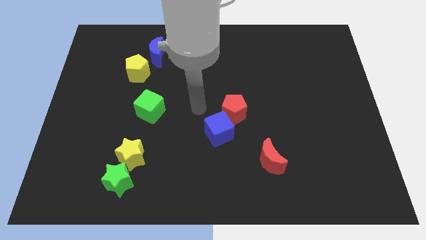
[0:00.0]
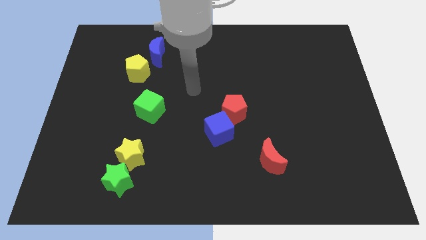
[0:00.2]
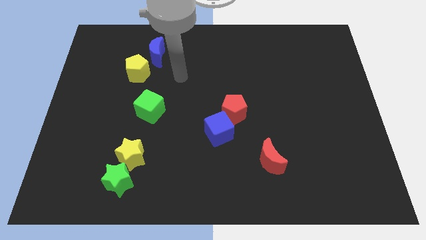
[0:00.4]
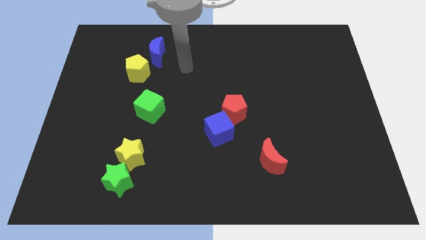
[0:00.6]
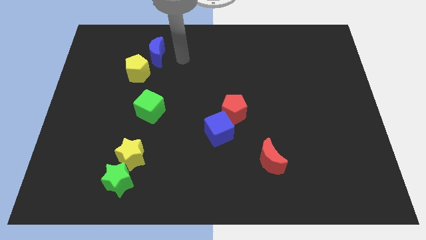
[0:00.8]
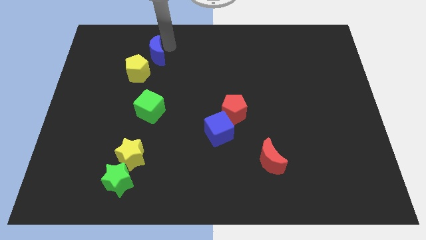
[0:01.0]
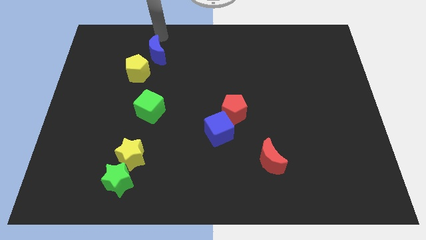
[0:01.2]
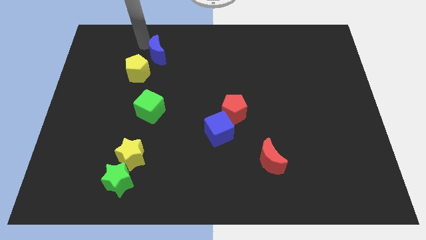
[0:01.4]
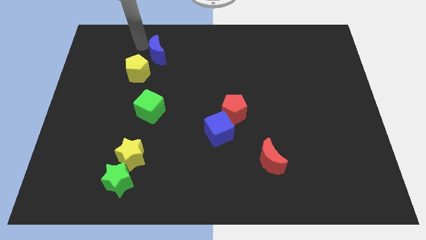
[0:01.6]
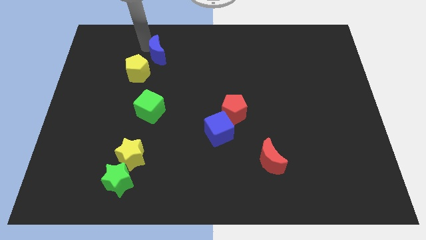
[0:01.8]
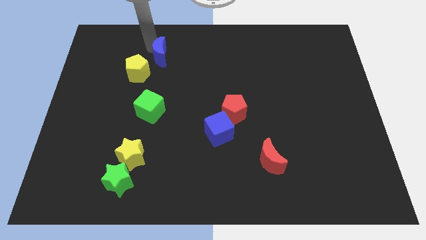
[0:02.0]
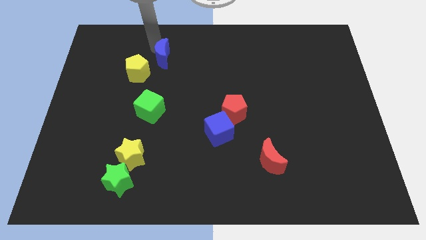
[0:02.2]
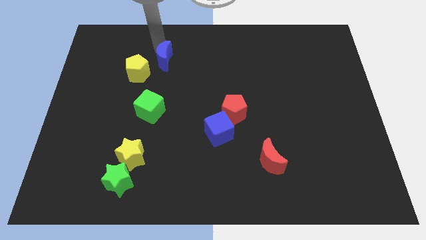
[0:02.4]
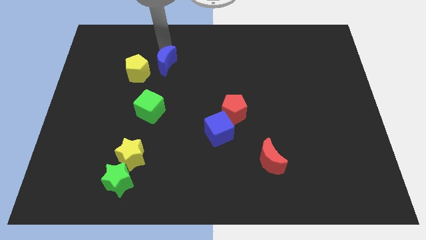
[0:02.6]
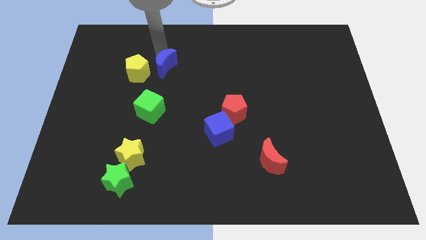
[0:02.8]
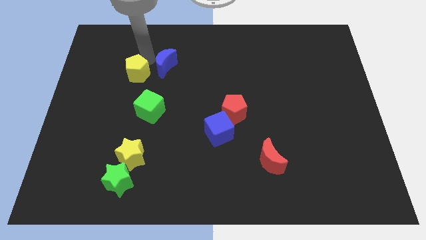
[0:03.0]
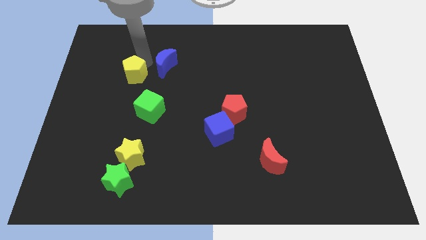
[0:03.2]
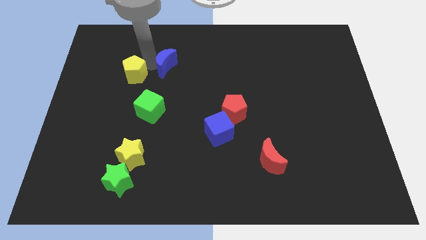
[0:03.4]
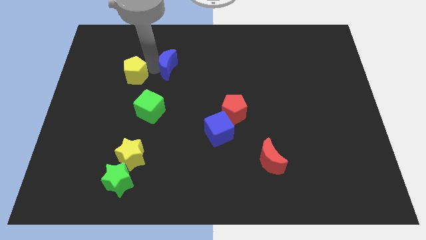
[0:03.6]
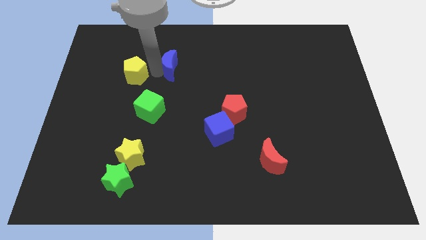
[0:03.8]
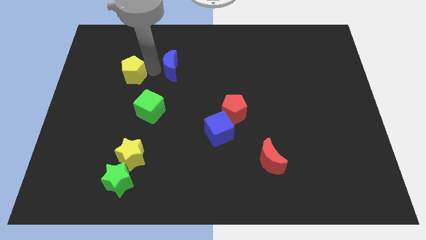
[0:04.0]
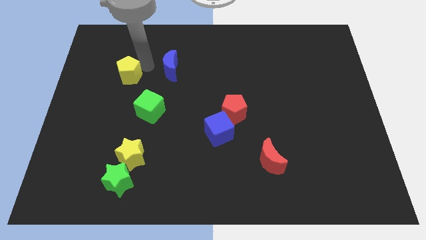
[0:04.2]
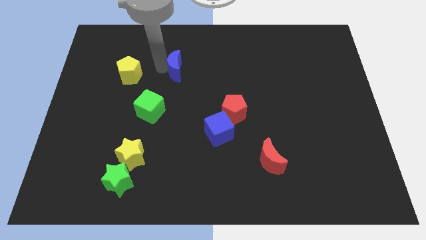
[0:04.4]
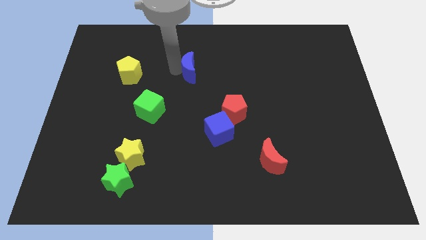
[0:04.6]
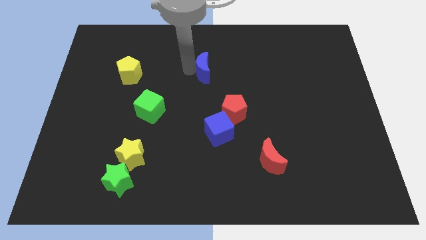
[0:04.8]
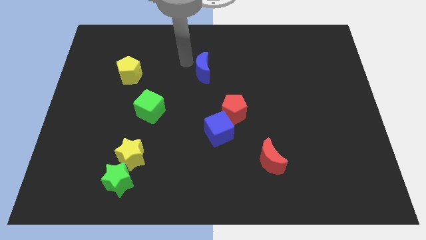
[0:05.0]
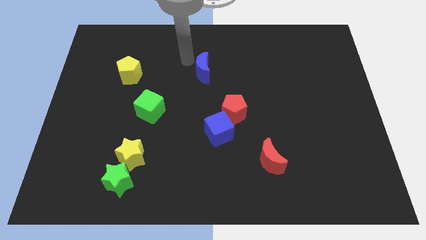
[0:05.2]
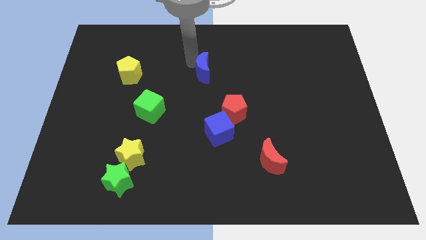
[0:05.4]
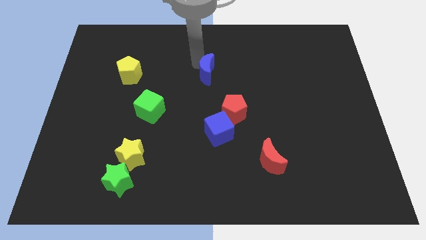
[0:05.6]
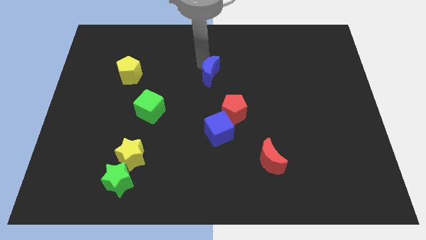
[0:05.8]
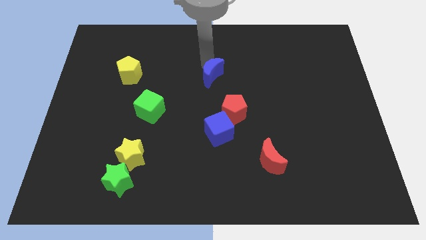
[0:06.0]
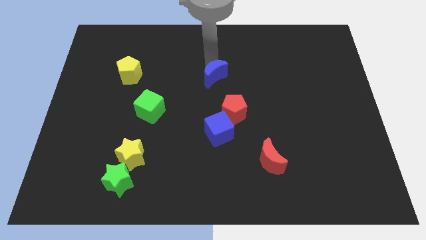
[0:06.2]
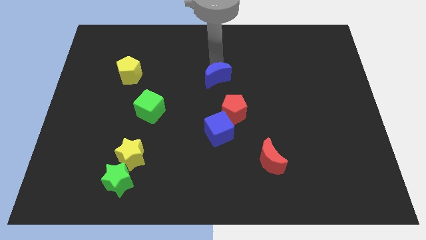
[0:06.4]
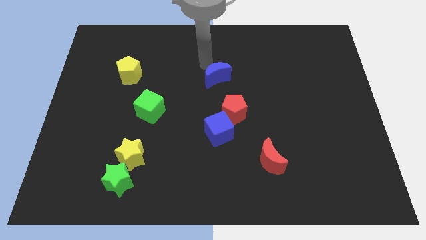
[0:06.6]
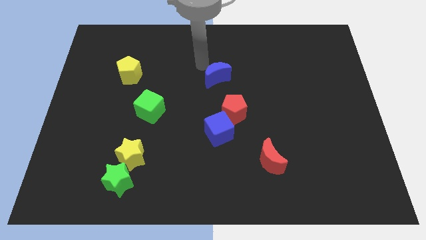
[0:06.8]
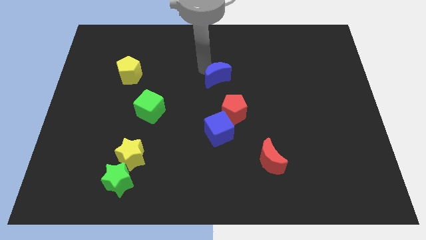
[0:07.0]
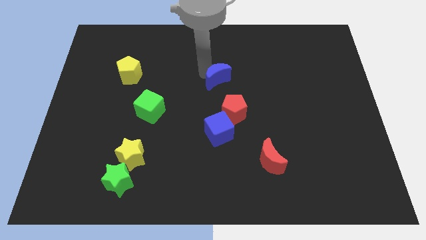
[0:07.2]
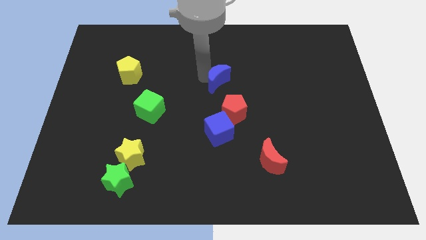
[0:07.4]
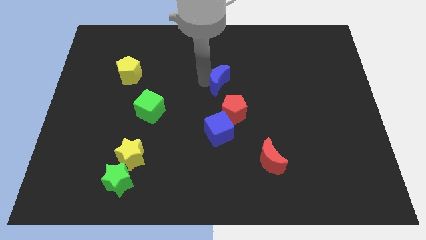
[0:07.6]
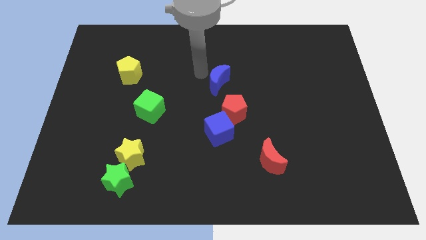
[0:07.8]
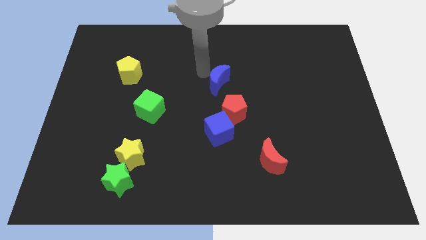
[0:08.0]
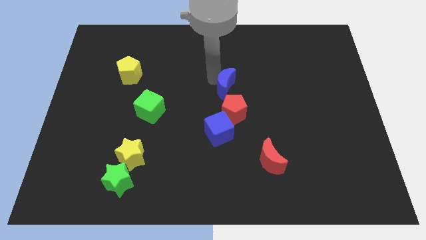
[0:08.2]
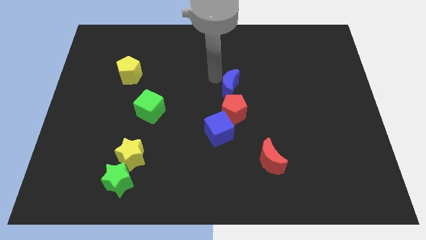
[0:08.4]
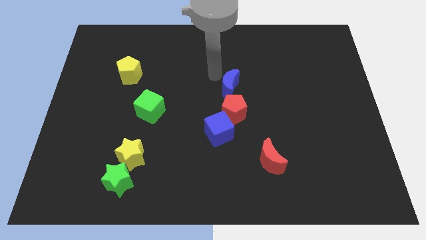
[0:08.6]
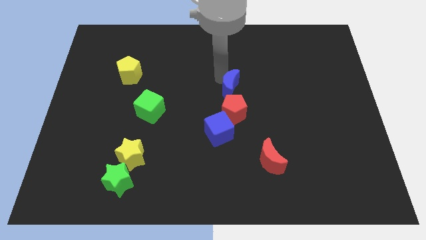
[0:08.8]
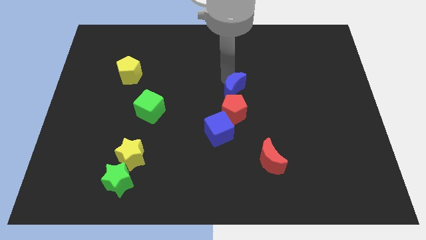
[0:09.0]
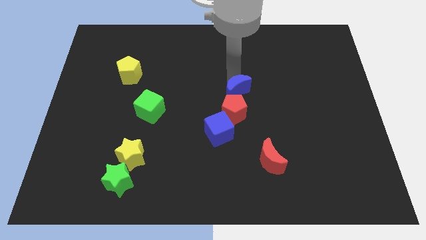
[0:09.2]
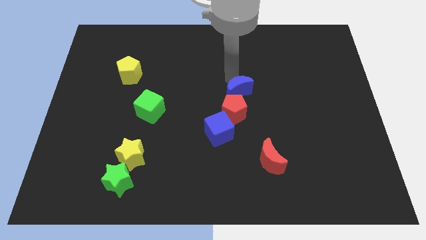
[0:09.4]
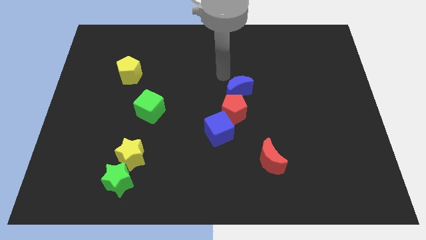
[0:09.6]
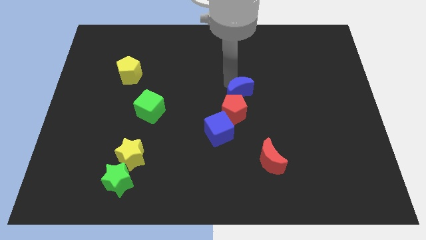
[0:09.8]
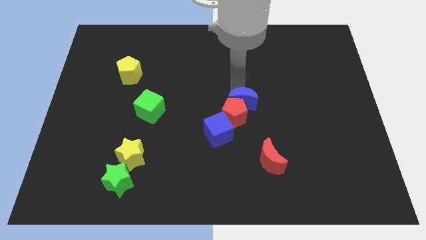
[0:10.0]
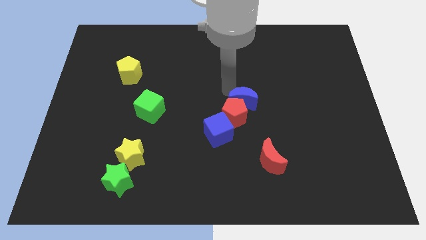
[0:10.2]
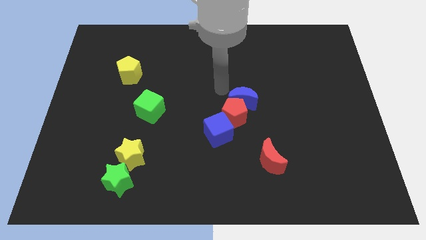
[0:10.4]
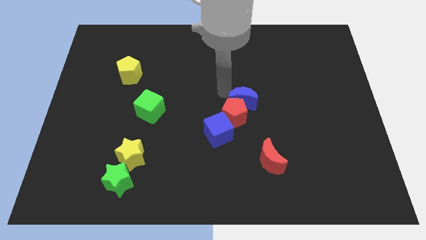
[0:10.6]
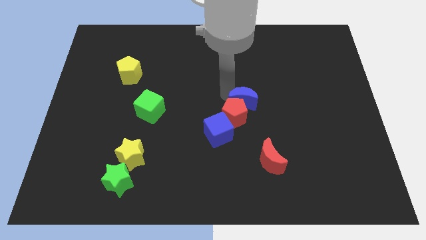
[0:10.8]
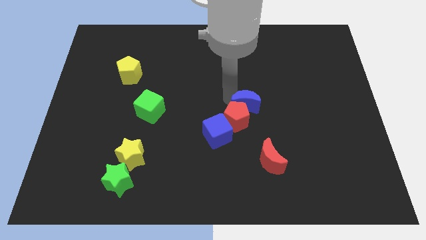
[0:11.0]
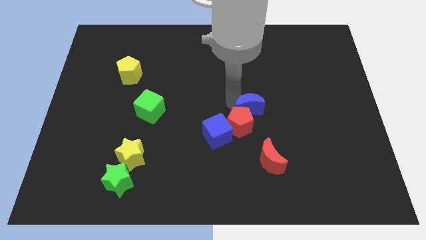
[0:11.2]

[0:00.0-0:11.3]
slide the blue moon to the top of the red moon

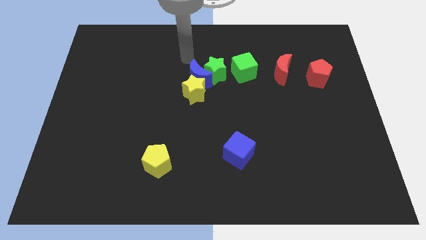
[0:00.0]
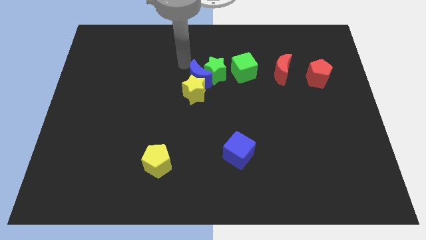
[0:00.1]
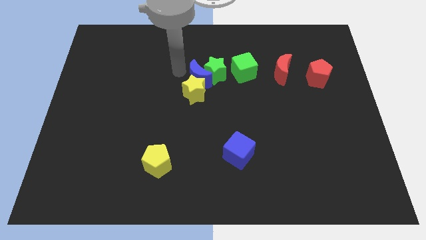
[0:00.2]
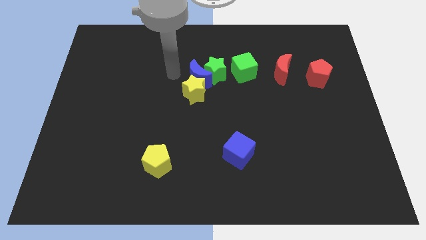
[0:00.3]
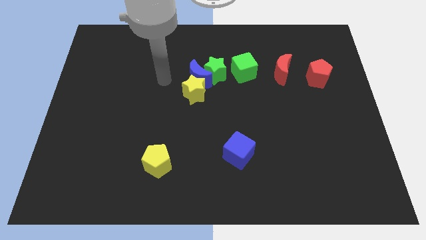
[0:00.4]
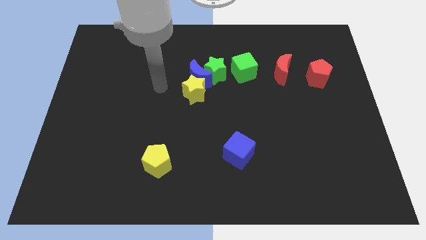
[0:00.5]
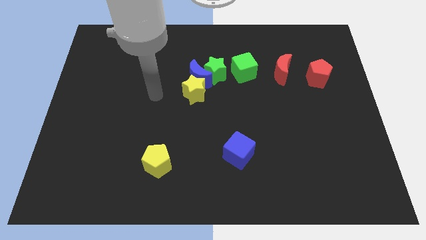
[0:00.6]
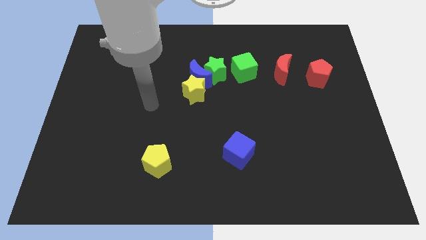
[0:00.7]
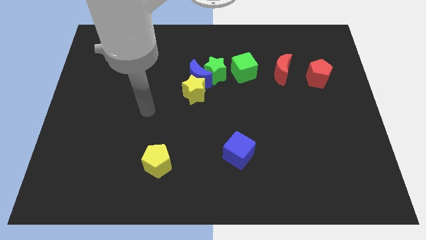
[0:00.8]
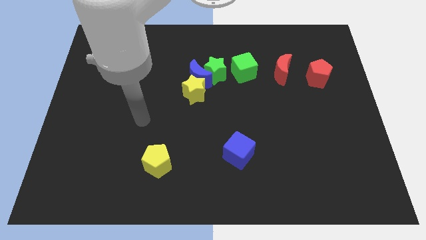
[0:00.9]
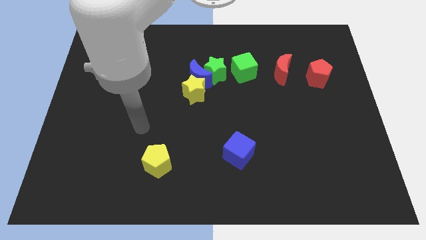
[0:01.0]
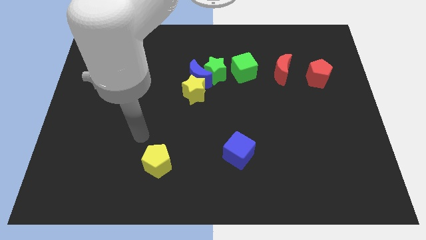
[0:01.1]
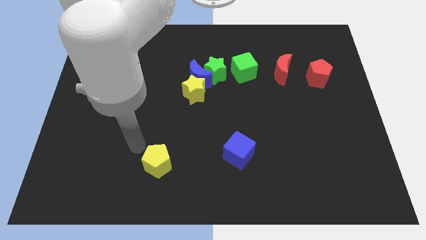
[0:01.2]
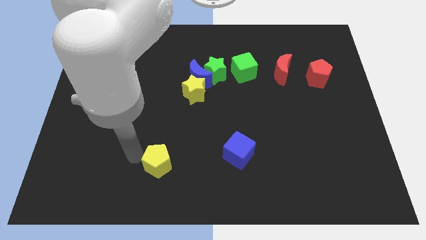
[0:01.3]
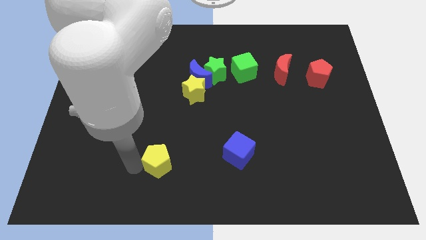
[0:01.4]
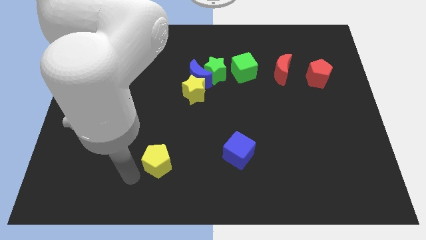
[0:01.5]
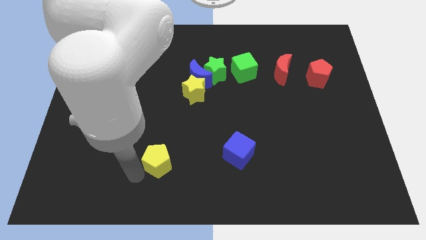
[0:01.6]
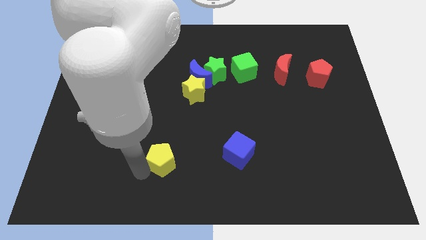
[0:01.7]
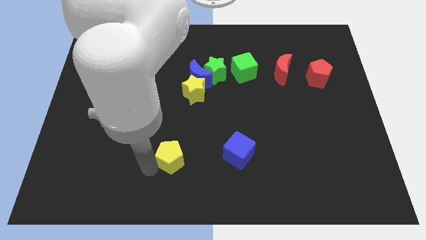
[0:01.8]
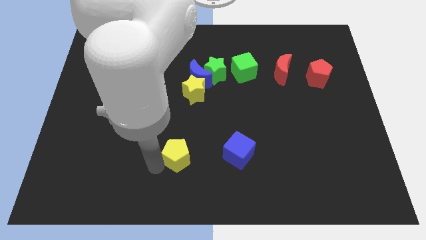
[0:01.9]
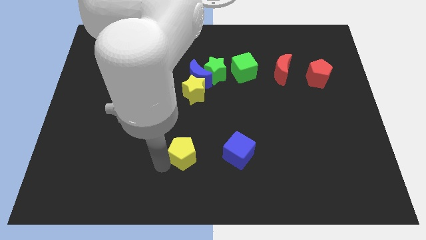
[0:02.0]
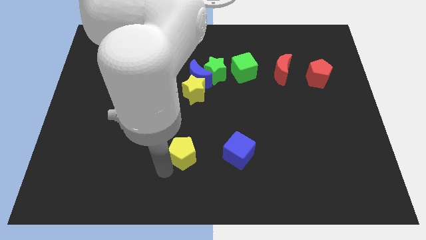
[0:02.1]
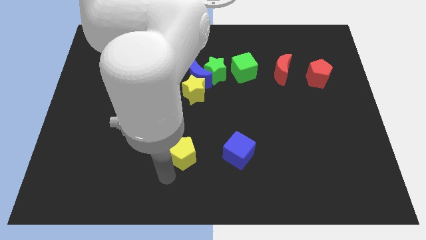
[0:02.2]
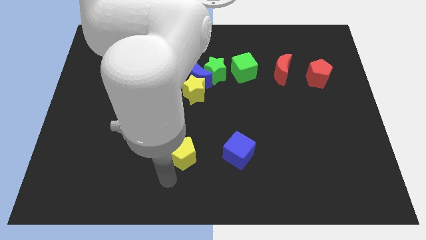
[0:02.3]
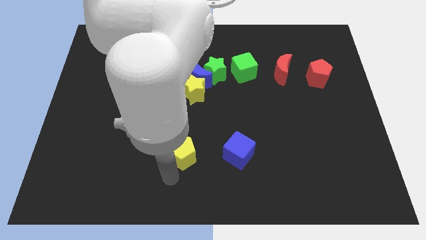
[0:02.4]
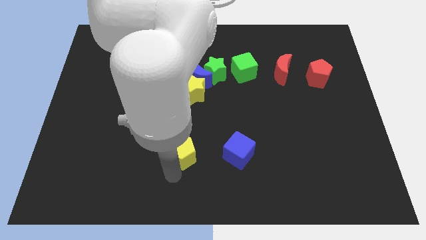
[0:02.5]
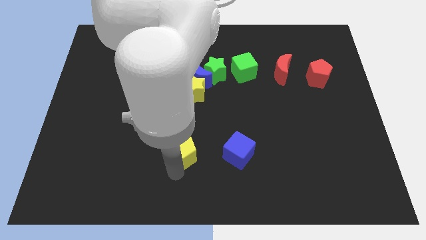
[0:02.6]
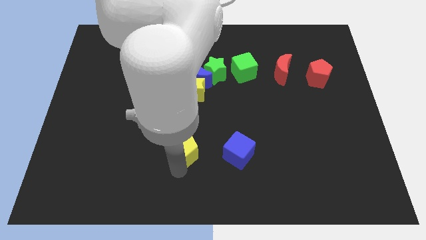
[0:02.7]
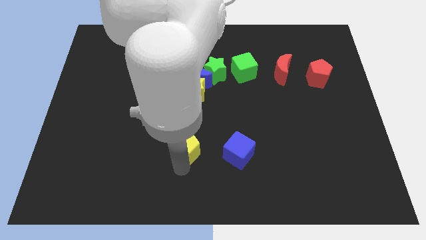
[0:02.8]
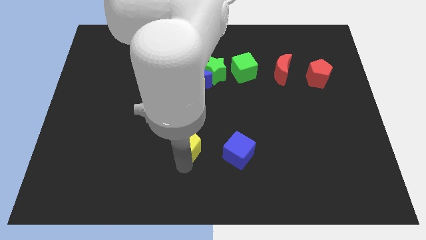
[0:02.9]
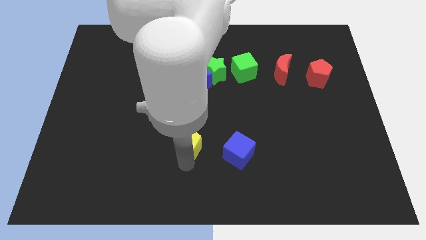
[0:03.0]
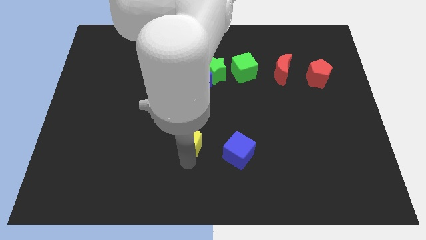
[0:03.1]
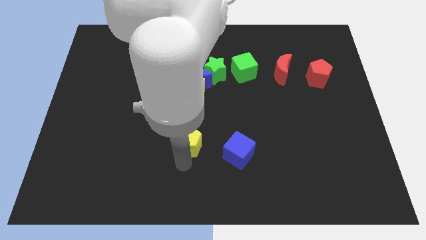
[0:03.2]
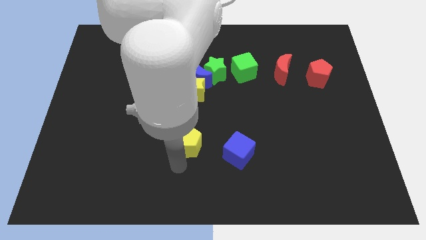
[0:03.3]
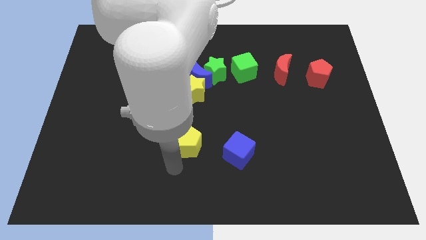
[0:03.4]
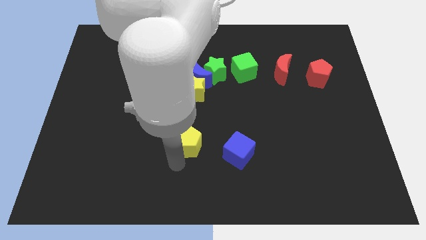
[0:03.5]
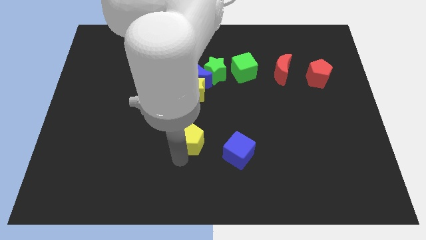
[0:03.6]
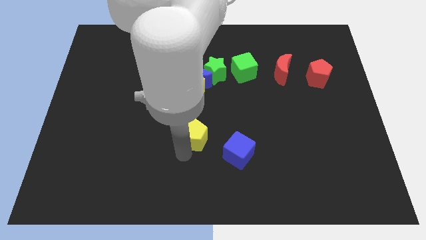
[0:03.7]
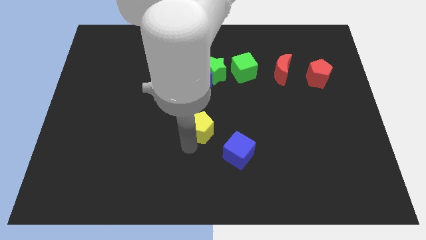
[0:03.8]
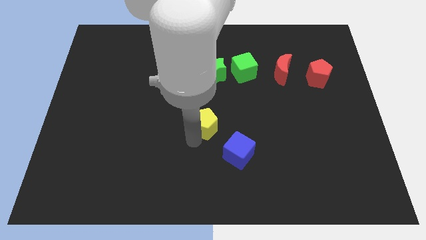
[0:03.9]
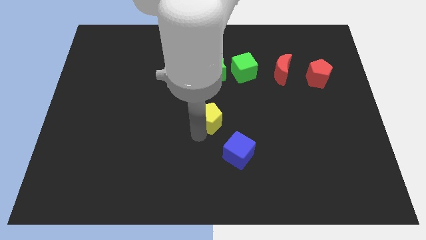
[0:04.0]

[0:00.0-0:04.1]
move the yellow pentagon to the bottom right of the yellow star
